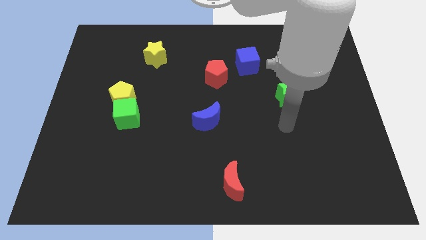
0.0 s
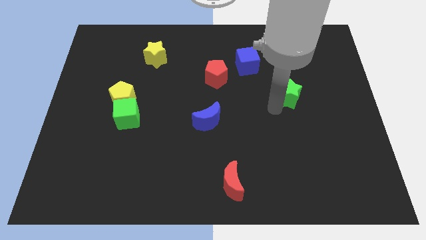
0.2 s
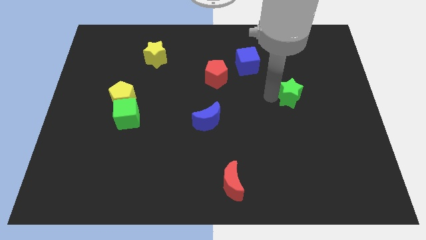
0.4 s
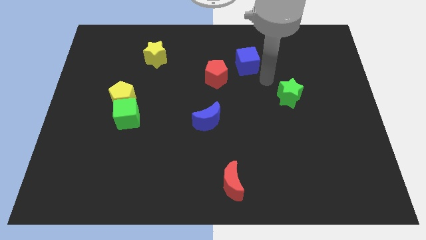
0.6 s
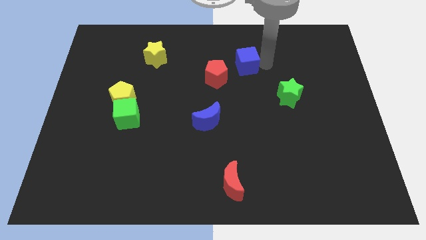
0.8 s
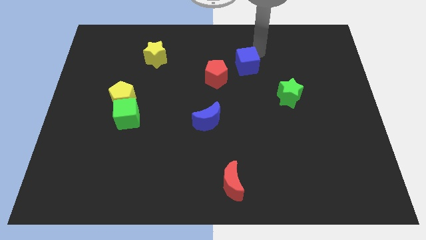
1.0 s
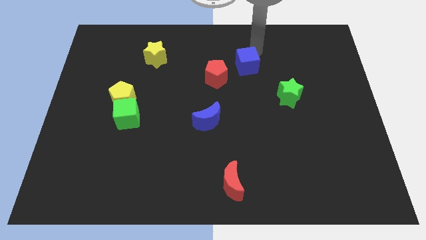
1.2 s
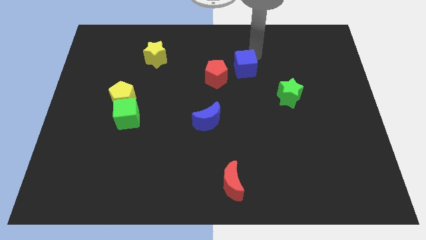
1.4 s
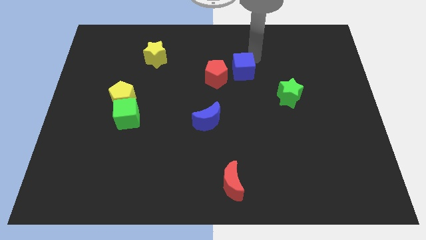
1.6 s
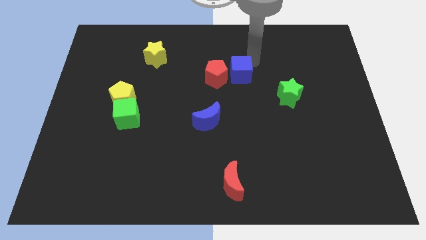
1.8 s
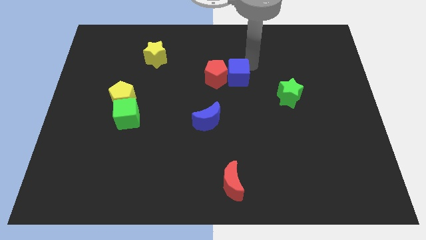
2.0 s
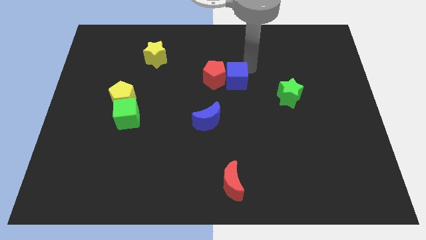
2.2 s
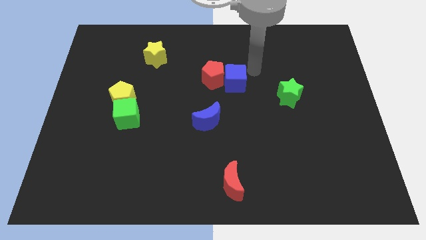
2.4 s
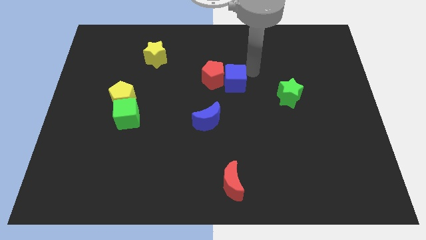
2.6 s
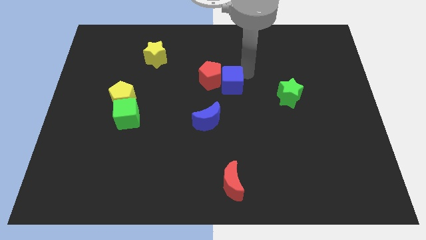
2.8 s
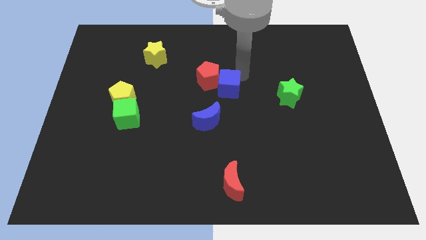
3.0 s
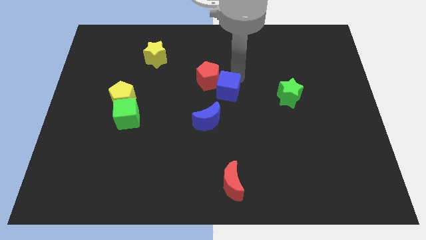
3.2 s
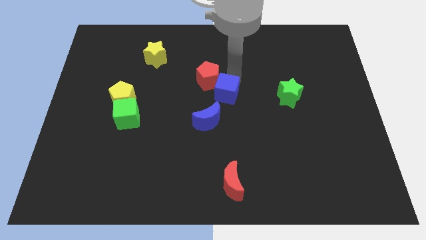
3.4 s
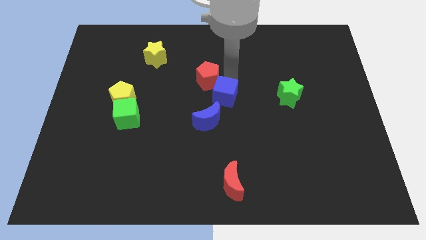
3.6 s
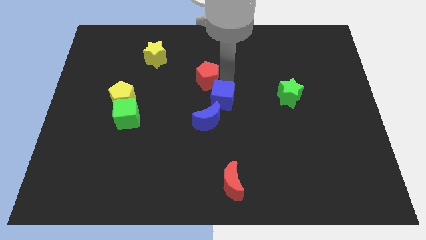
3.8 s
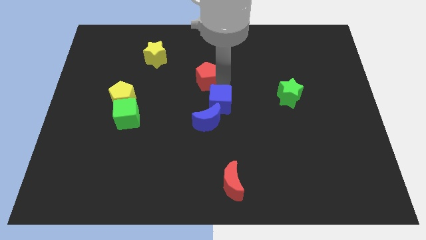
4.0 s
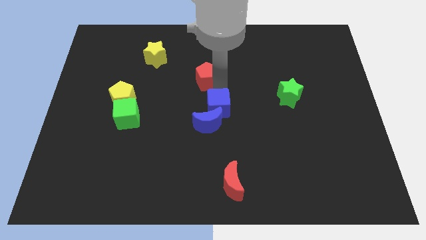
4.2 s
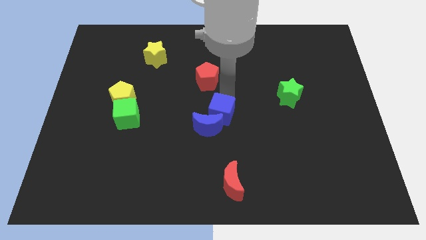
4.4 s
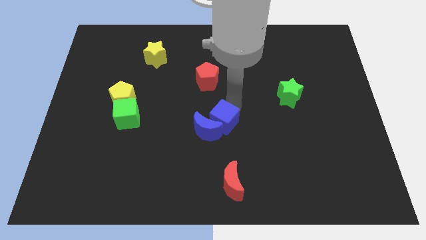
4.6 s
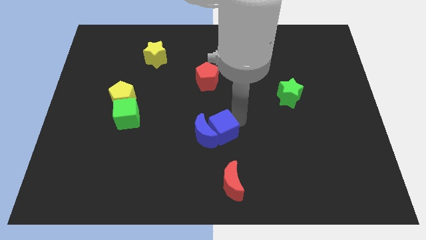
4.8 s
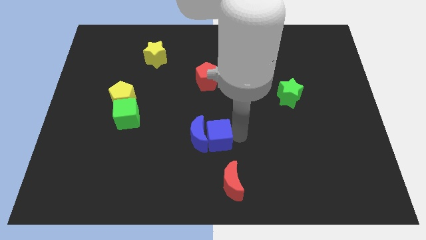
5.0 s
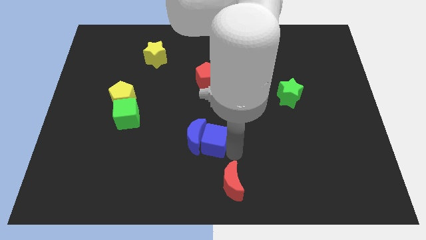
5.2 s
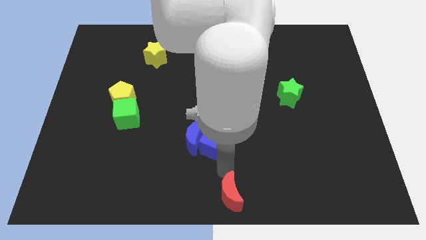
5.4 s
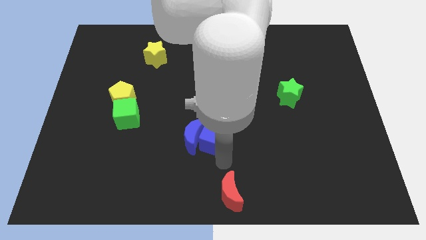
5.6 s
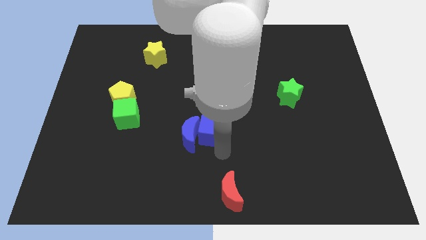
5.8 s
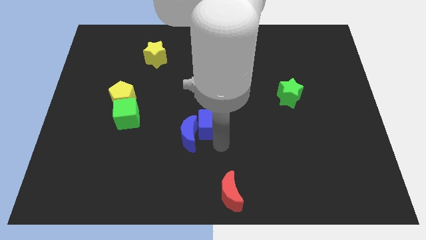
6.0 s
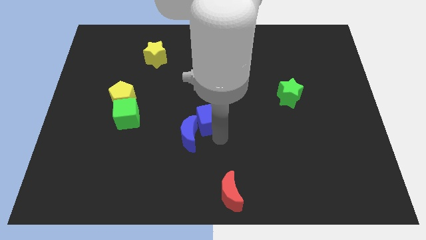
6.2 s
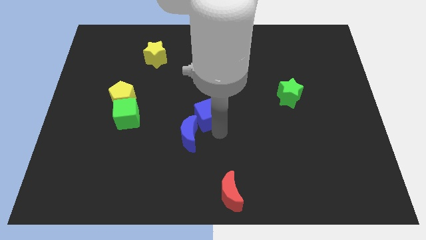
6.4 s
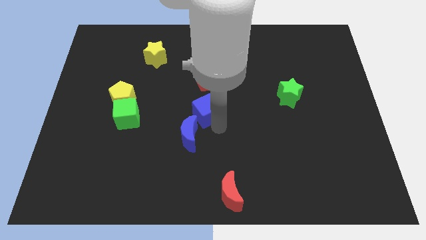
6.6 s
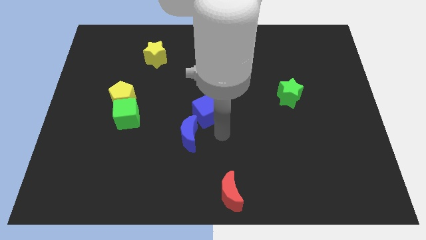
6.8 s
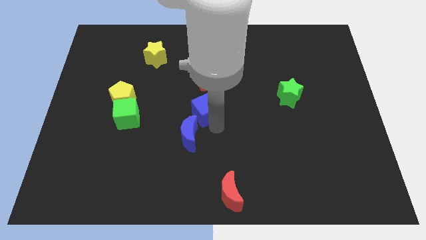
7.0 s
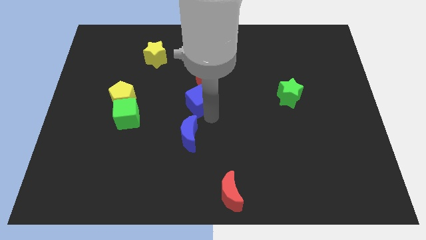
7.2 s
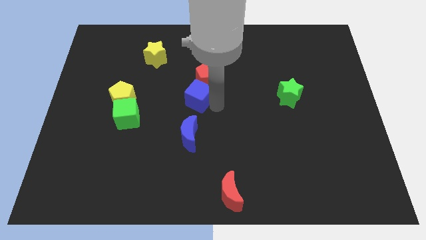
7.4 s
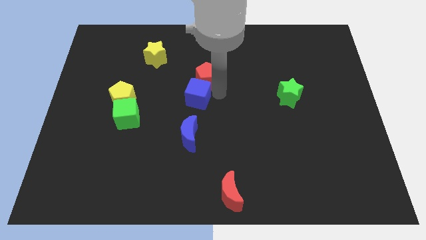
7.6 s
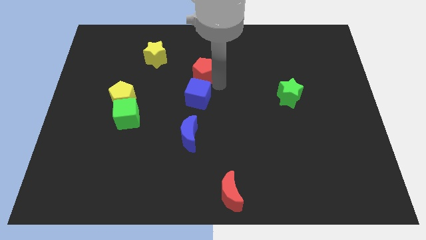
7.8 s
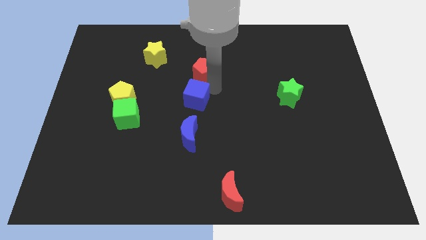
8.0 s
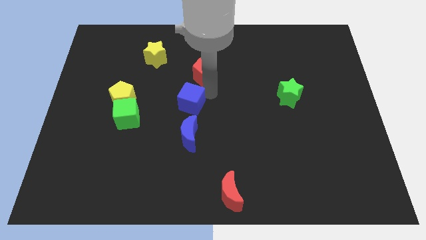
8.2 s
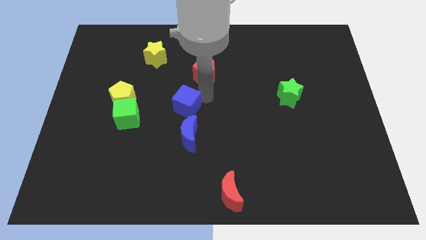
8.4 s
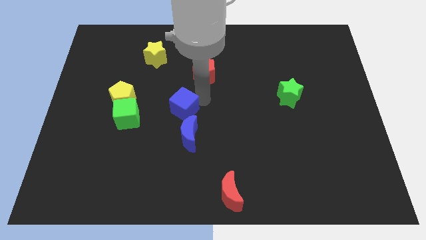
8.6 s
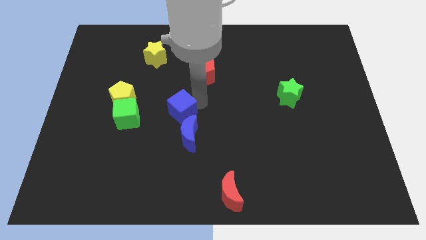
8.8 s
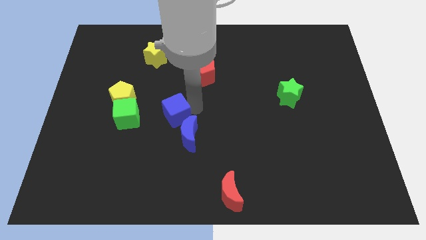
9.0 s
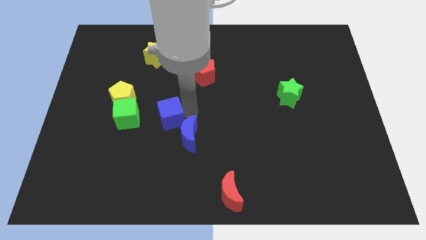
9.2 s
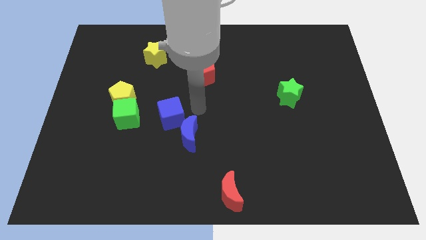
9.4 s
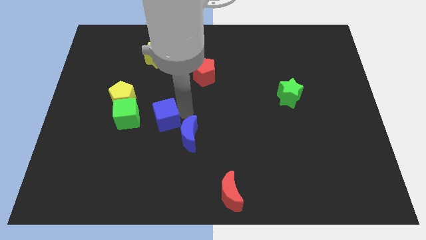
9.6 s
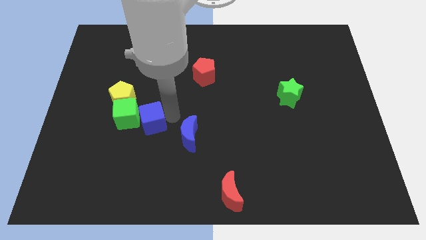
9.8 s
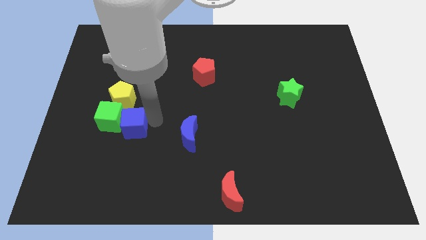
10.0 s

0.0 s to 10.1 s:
put the blue cube to the bottom side of the yellow pentagon

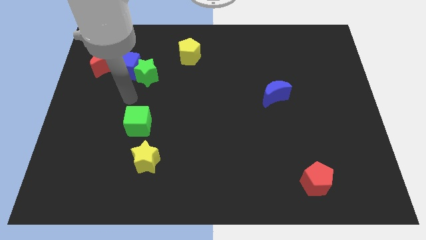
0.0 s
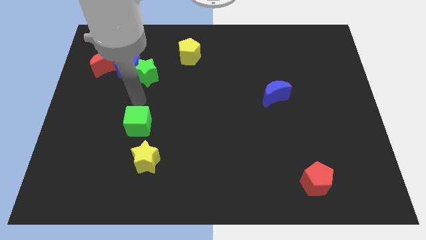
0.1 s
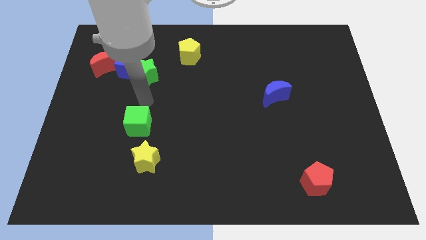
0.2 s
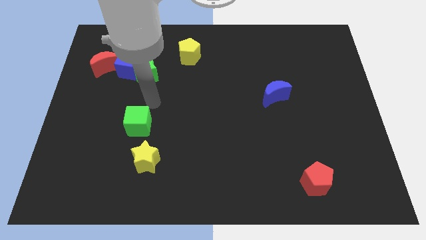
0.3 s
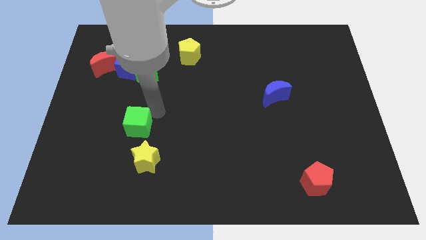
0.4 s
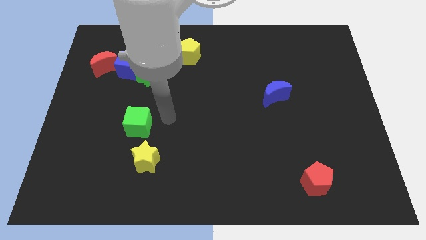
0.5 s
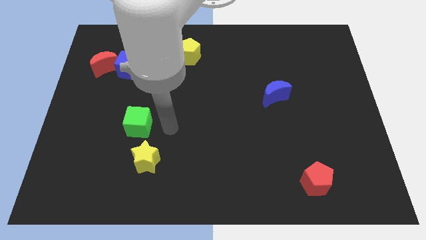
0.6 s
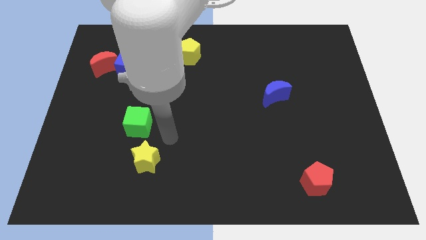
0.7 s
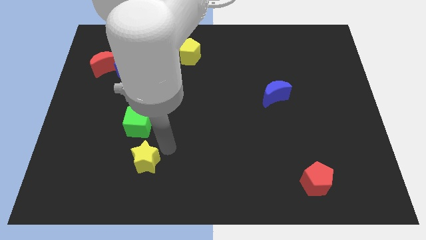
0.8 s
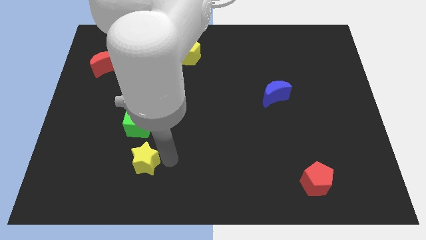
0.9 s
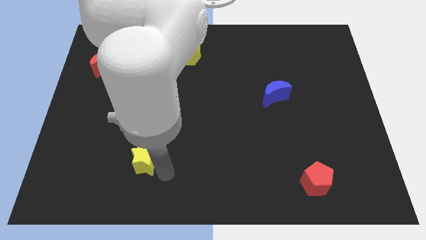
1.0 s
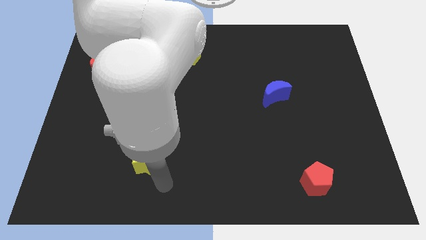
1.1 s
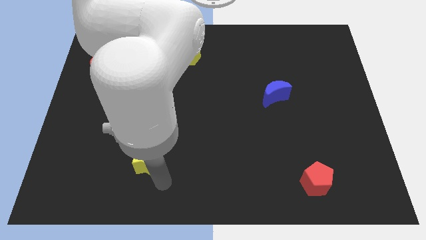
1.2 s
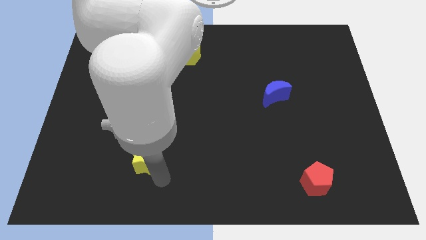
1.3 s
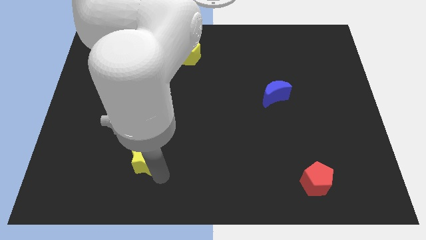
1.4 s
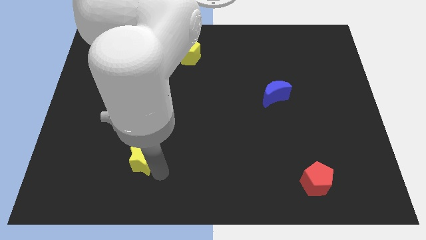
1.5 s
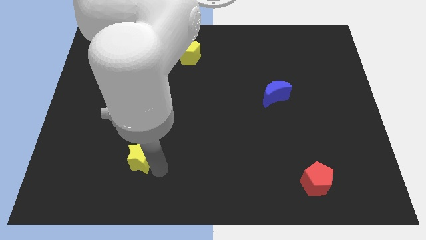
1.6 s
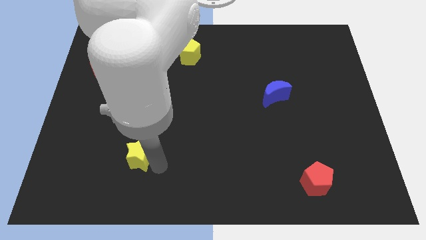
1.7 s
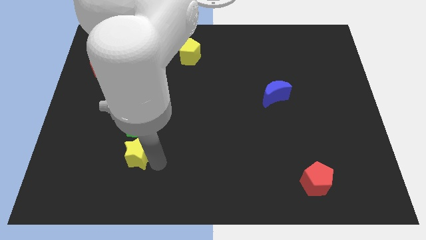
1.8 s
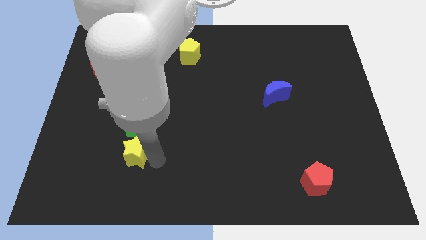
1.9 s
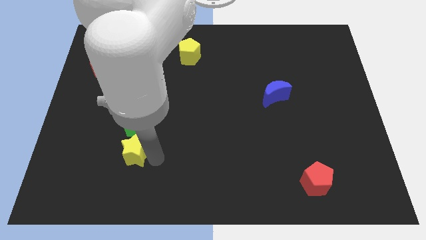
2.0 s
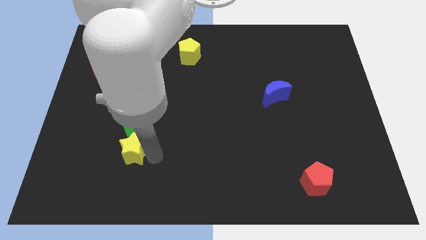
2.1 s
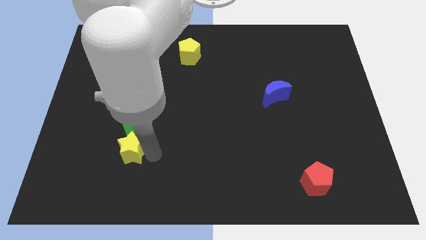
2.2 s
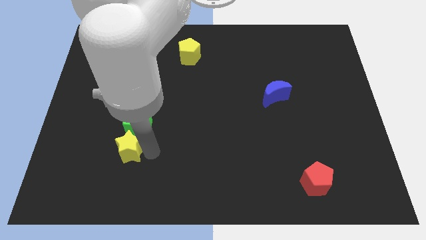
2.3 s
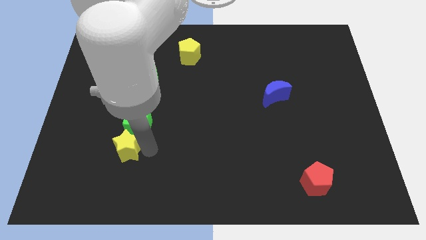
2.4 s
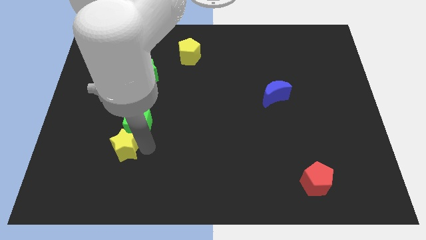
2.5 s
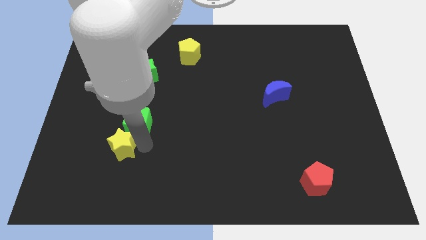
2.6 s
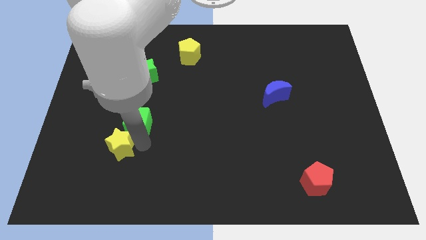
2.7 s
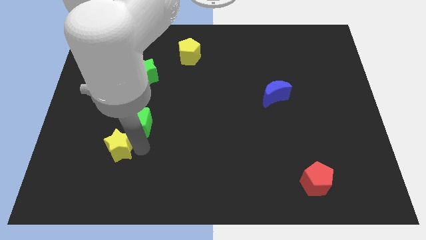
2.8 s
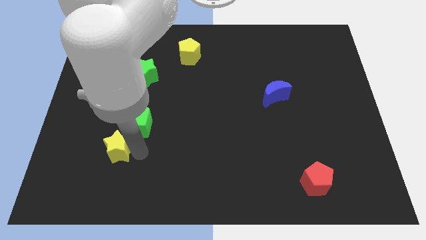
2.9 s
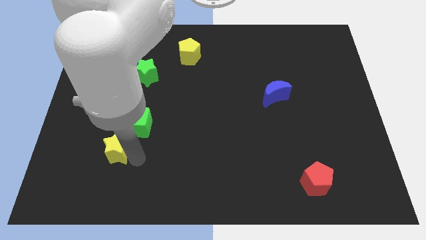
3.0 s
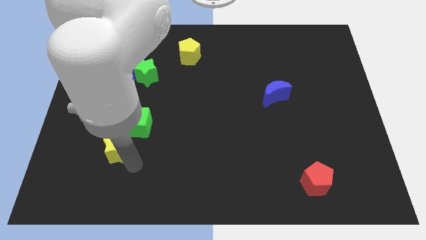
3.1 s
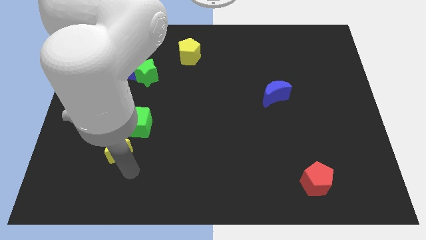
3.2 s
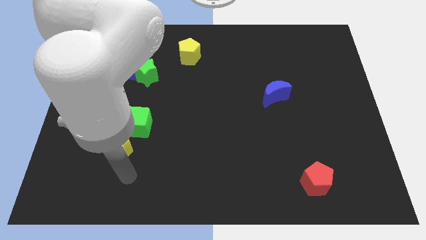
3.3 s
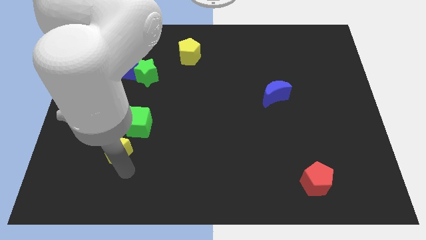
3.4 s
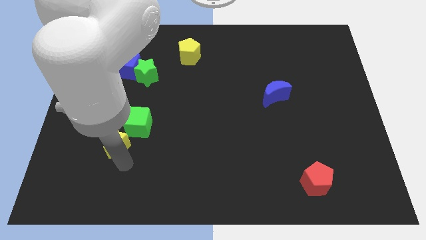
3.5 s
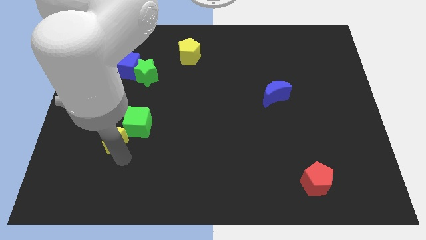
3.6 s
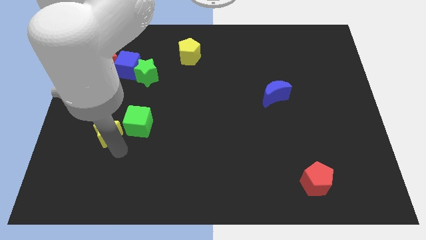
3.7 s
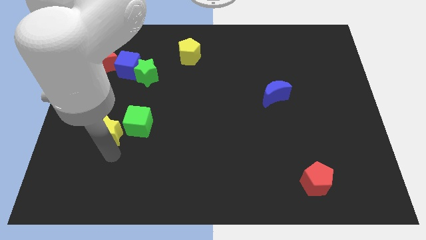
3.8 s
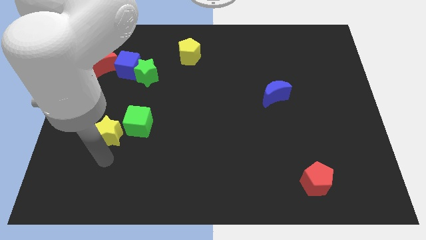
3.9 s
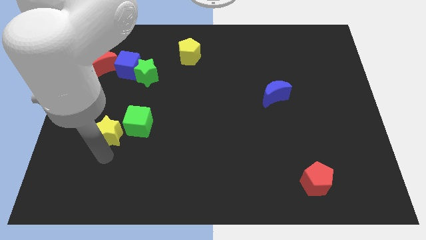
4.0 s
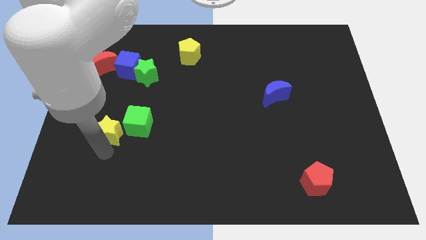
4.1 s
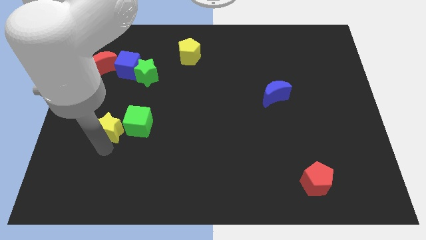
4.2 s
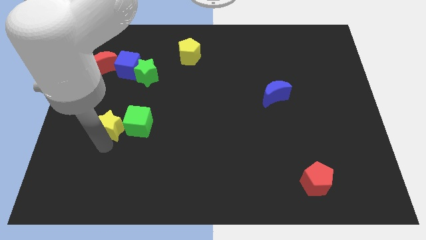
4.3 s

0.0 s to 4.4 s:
put the yellow star to the top left side of the green cube
